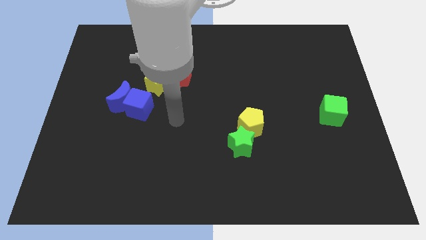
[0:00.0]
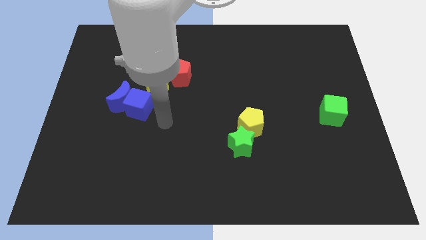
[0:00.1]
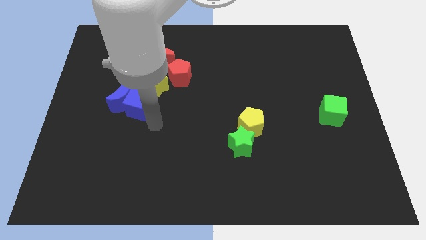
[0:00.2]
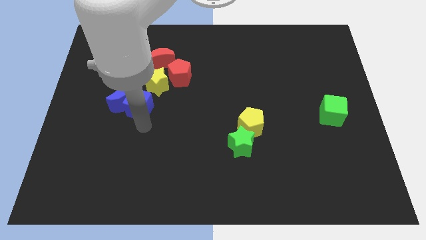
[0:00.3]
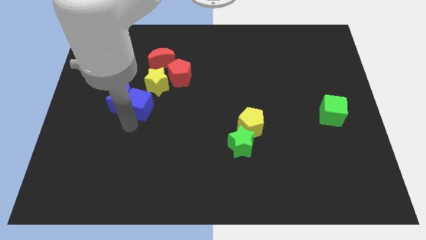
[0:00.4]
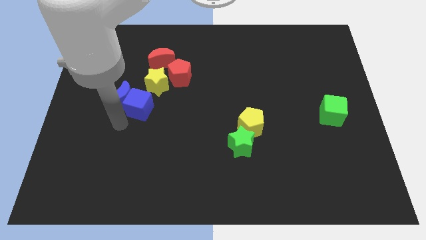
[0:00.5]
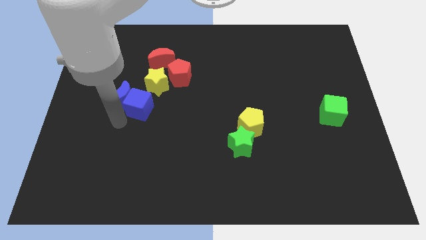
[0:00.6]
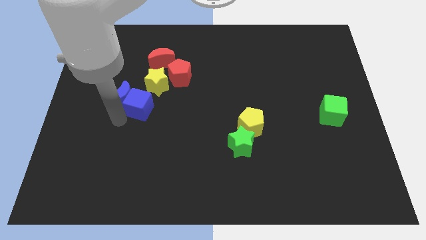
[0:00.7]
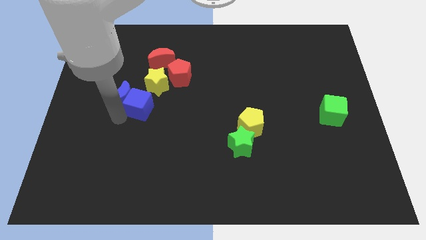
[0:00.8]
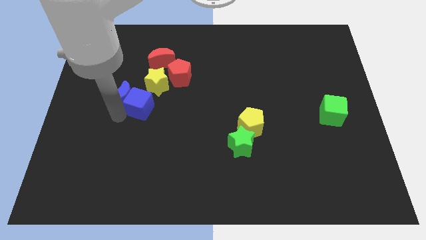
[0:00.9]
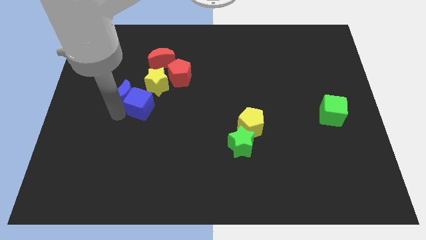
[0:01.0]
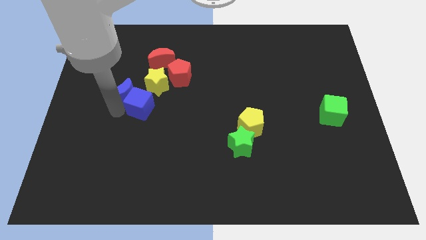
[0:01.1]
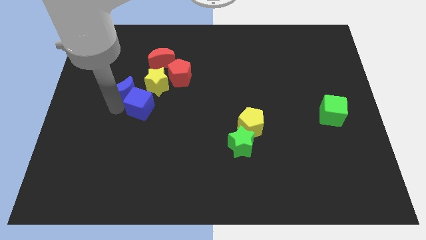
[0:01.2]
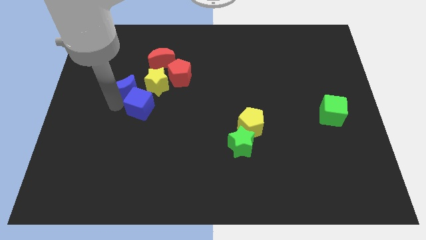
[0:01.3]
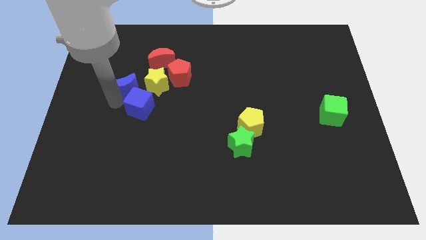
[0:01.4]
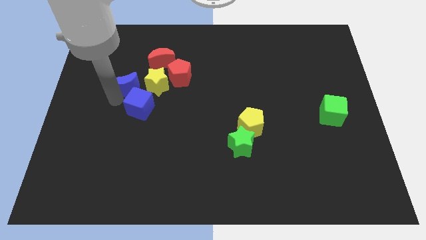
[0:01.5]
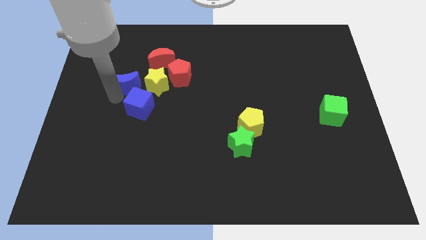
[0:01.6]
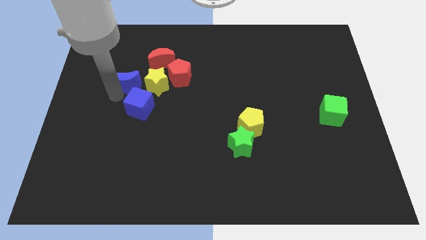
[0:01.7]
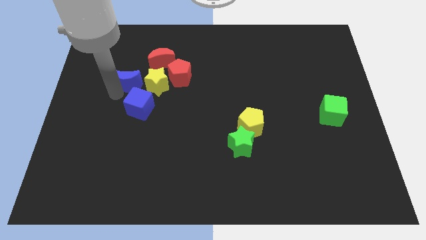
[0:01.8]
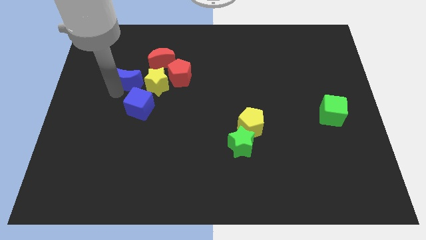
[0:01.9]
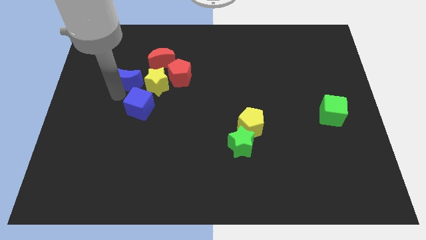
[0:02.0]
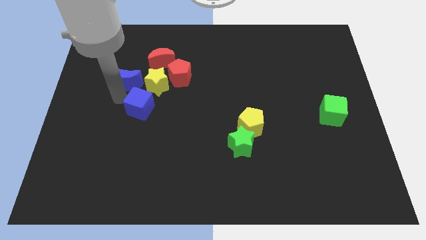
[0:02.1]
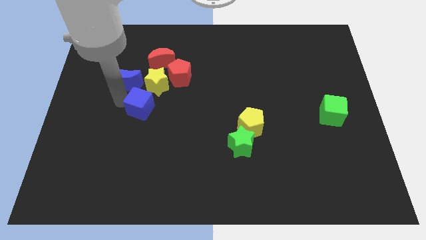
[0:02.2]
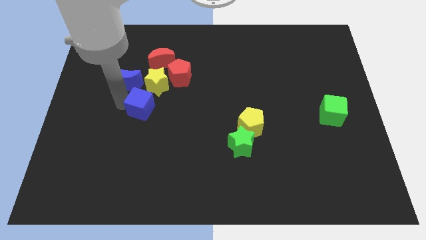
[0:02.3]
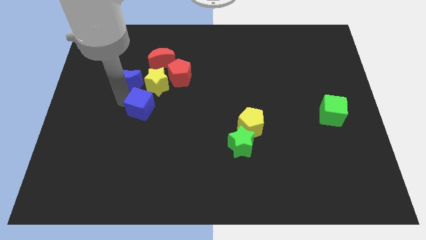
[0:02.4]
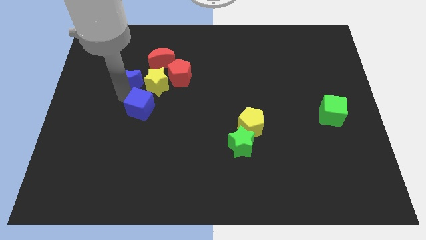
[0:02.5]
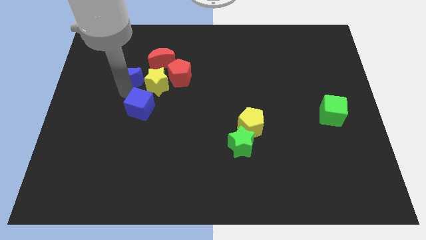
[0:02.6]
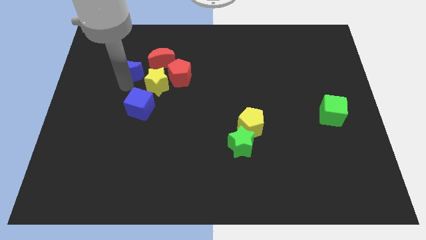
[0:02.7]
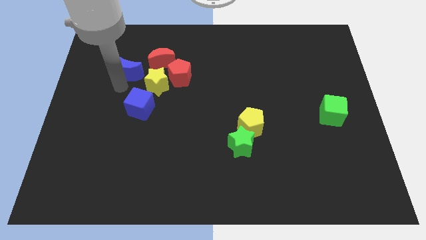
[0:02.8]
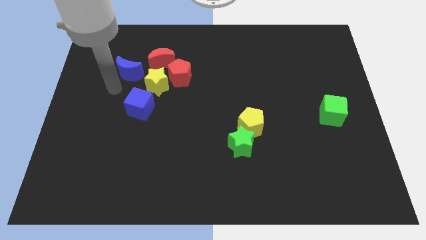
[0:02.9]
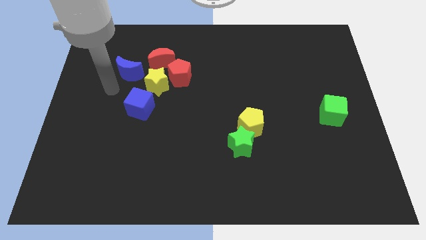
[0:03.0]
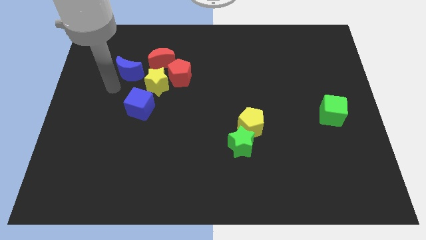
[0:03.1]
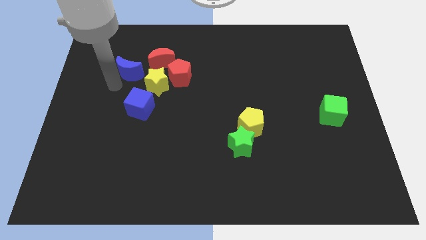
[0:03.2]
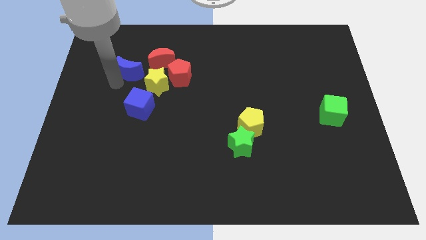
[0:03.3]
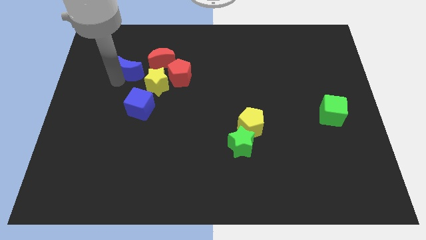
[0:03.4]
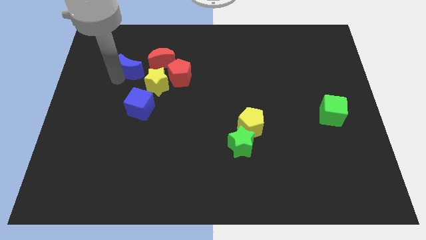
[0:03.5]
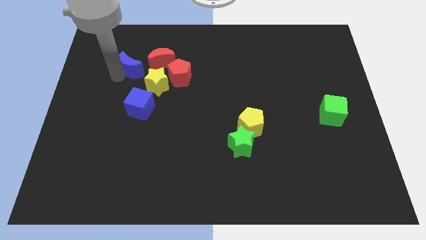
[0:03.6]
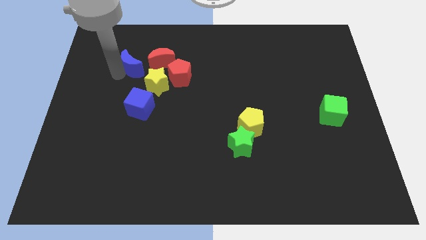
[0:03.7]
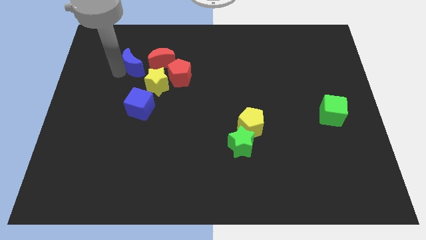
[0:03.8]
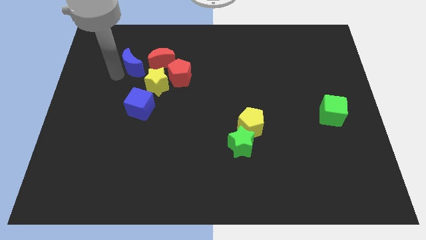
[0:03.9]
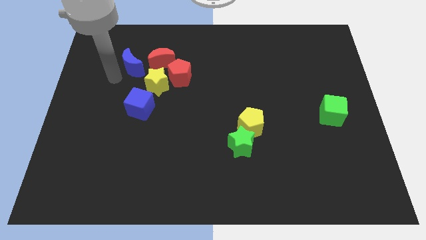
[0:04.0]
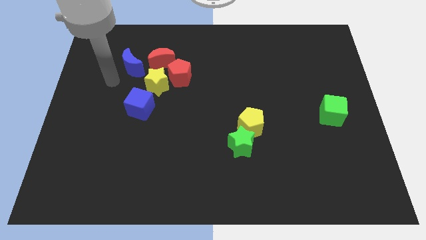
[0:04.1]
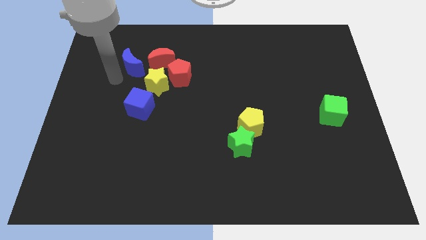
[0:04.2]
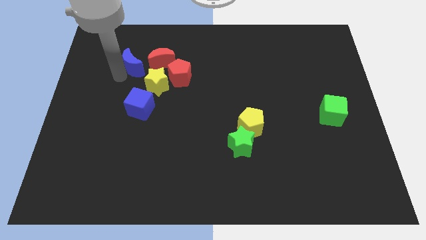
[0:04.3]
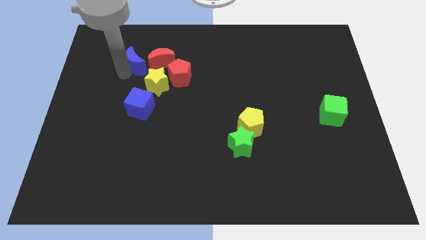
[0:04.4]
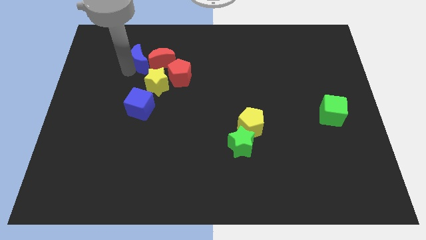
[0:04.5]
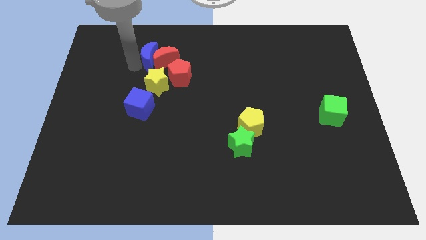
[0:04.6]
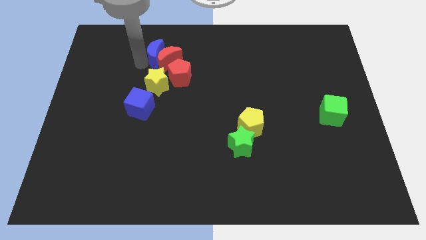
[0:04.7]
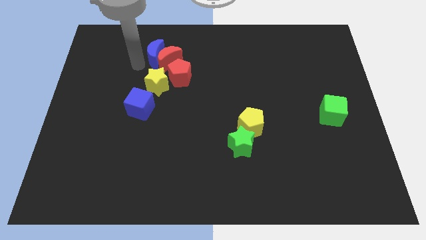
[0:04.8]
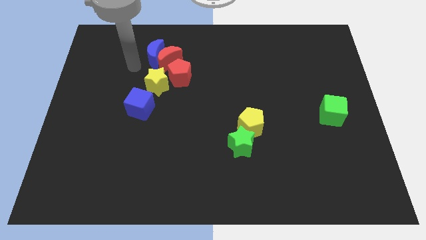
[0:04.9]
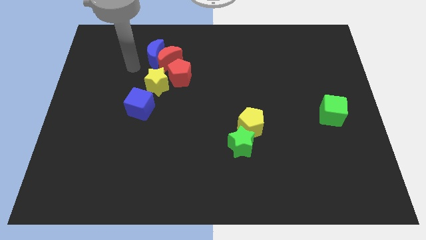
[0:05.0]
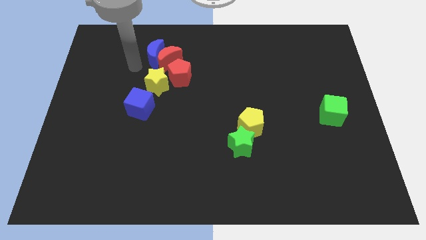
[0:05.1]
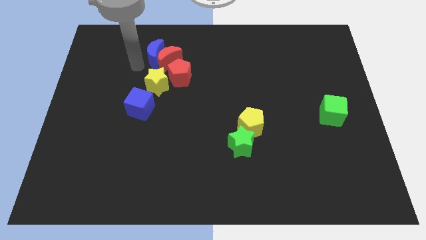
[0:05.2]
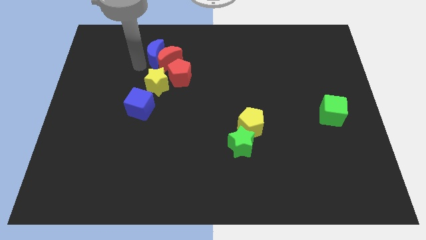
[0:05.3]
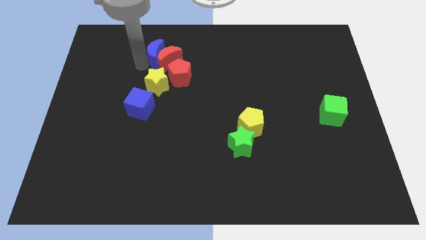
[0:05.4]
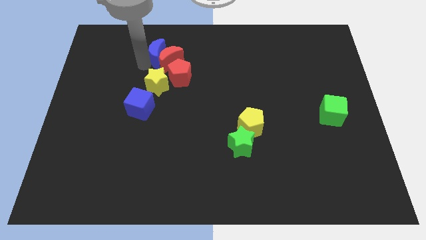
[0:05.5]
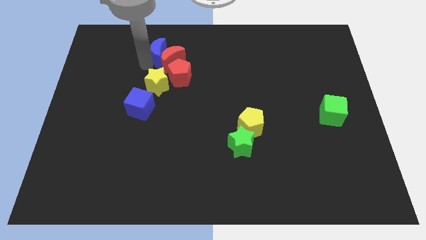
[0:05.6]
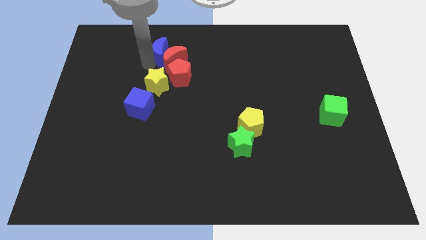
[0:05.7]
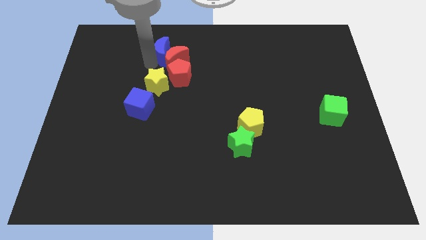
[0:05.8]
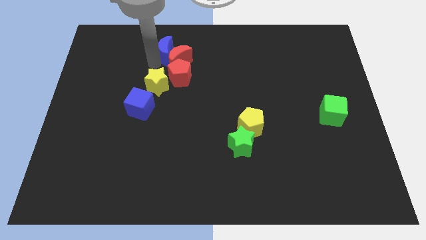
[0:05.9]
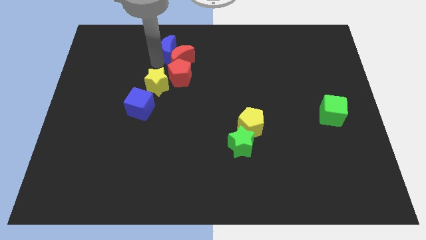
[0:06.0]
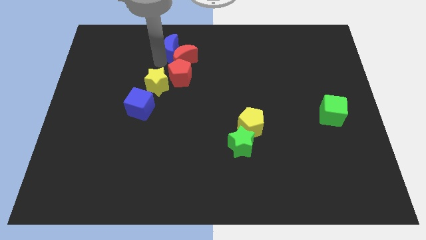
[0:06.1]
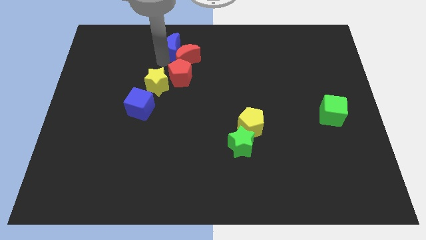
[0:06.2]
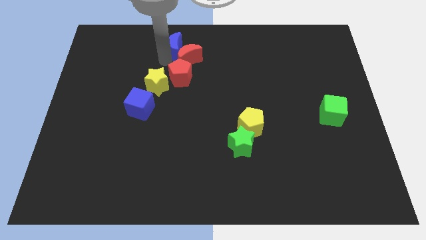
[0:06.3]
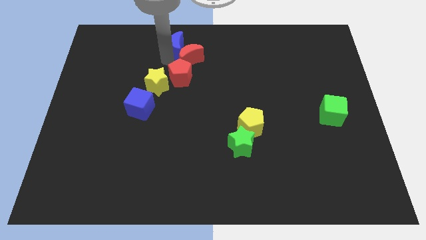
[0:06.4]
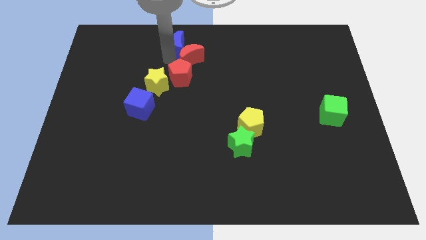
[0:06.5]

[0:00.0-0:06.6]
slide the blue moon to the towards your base
